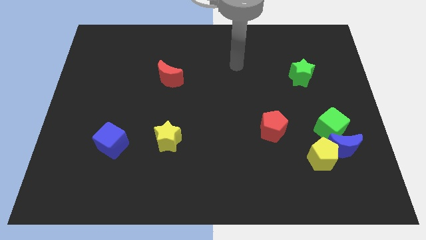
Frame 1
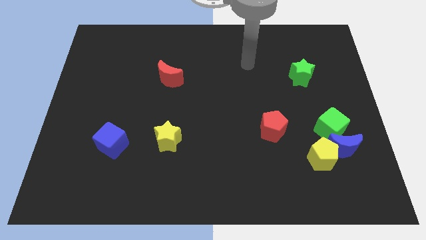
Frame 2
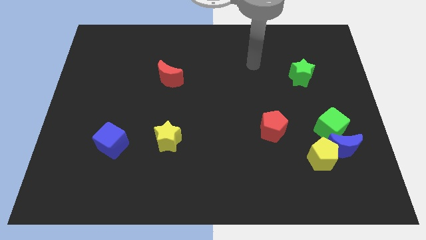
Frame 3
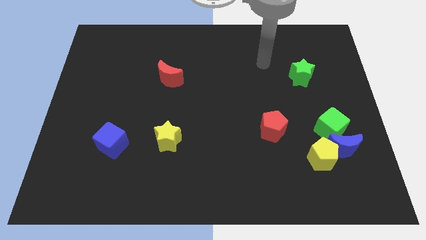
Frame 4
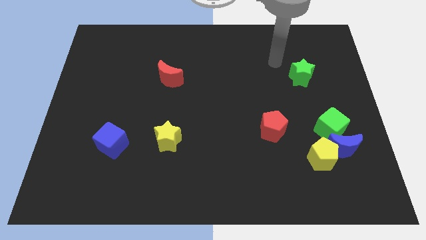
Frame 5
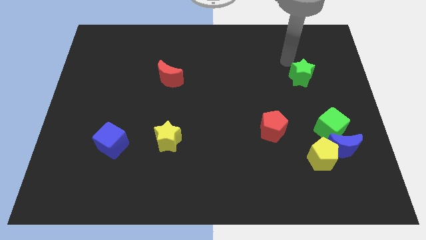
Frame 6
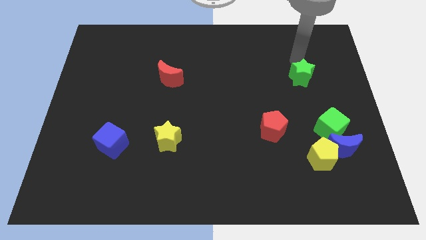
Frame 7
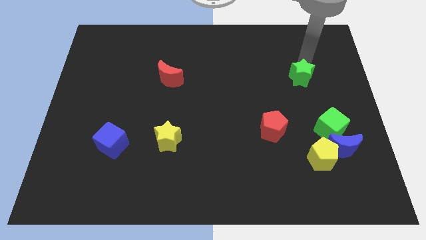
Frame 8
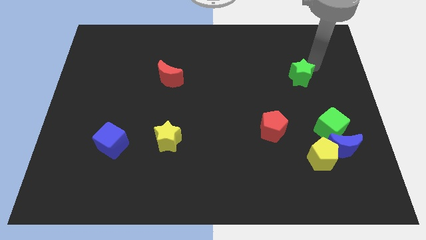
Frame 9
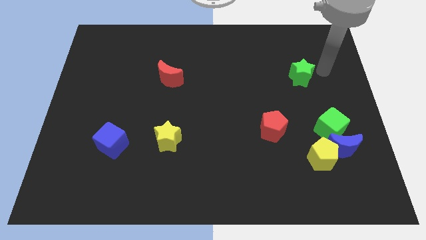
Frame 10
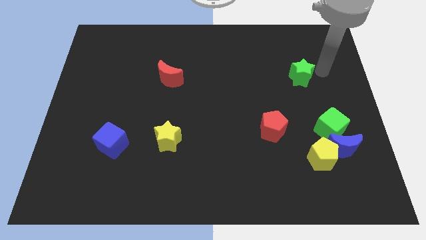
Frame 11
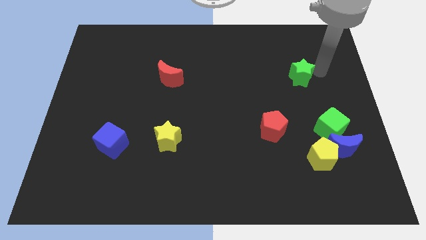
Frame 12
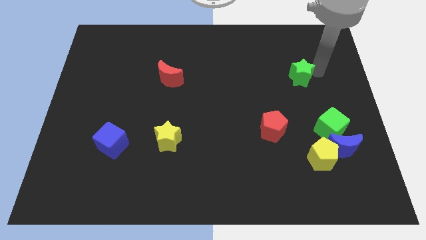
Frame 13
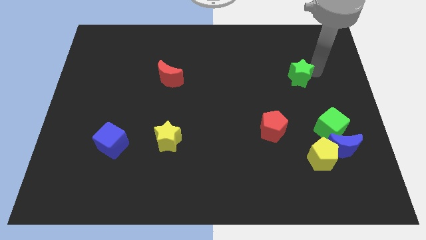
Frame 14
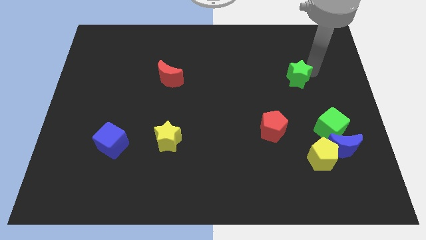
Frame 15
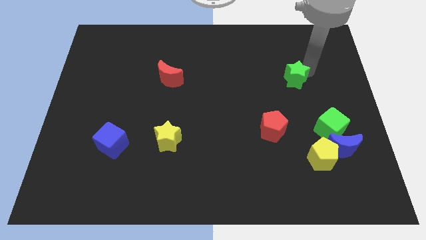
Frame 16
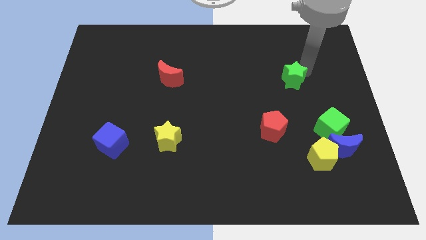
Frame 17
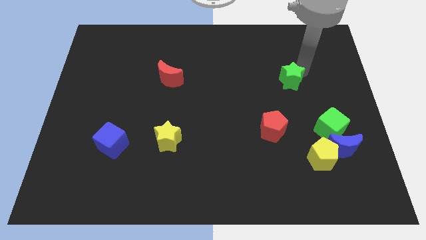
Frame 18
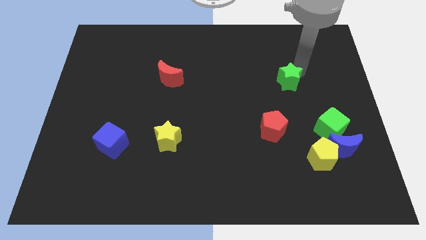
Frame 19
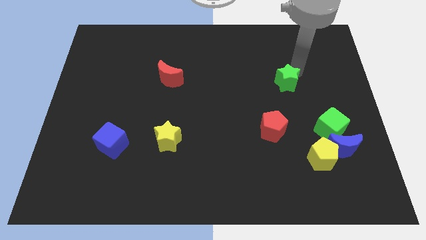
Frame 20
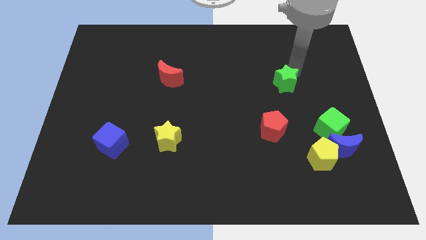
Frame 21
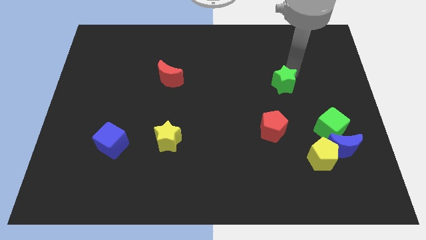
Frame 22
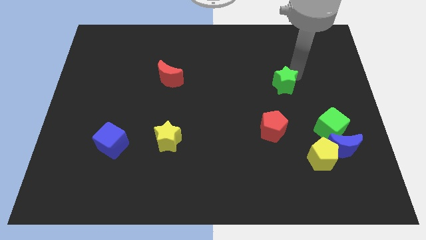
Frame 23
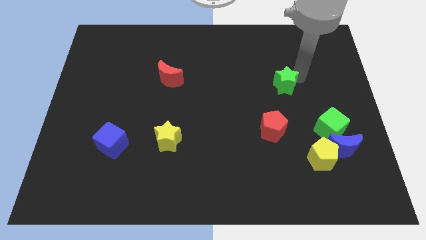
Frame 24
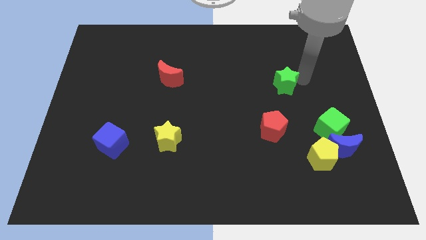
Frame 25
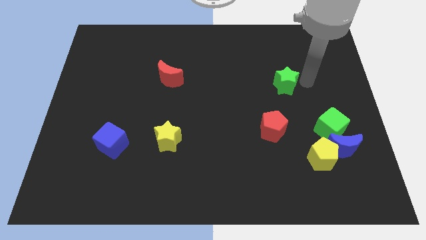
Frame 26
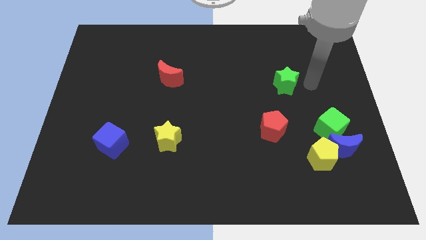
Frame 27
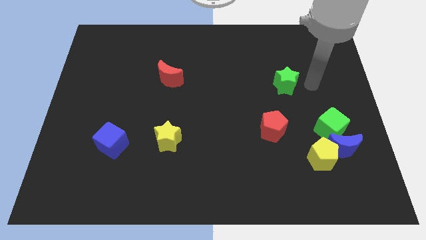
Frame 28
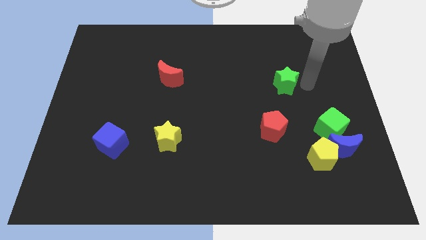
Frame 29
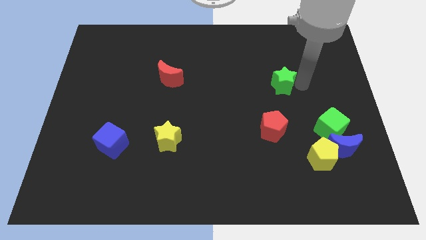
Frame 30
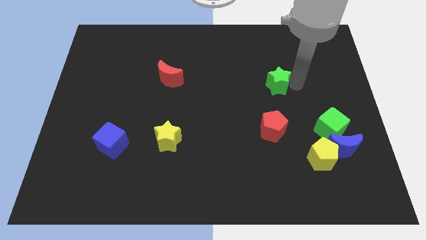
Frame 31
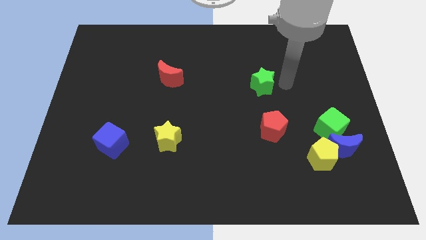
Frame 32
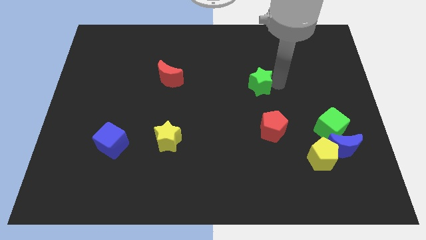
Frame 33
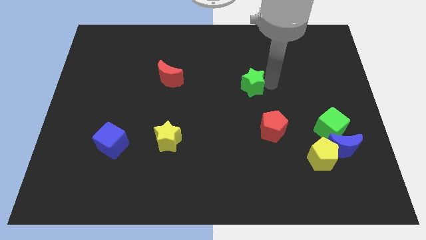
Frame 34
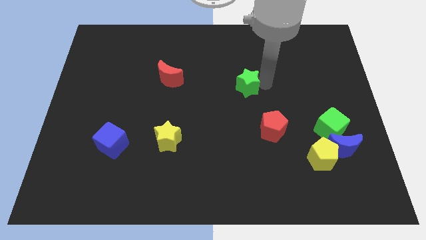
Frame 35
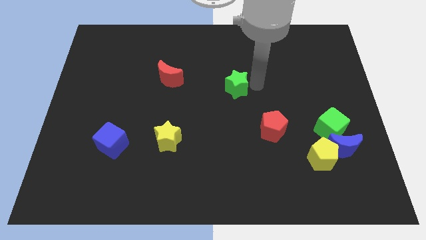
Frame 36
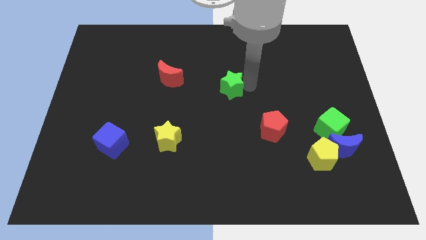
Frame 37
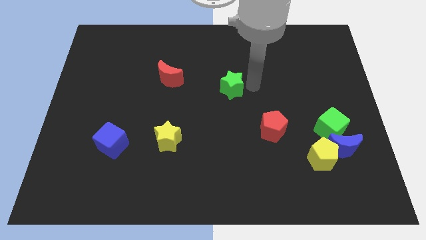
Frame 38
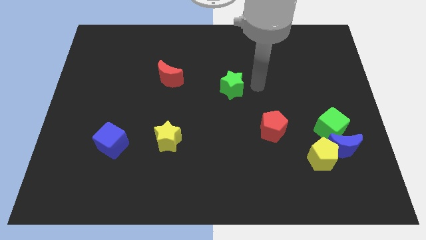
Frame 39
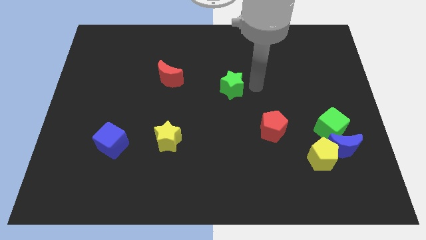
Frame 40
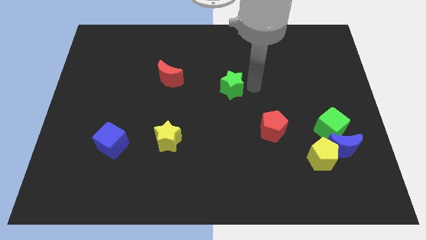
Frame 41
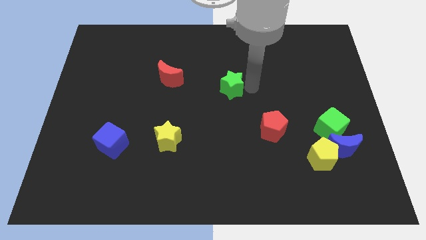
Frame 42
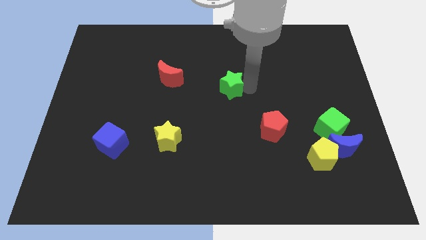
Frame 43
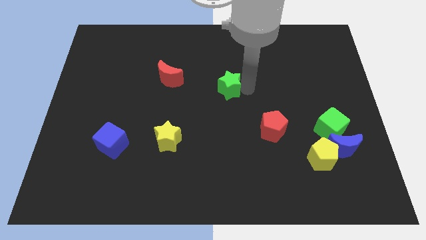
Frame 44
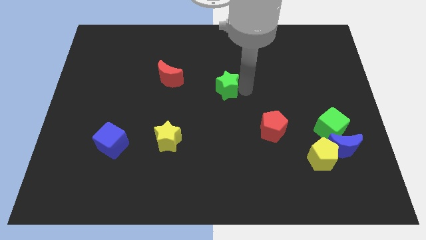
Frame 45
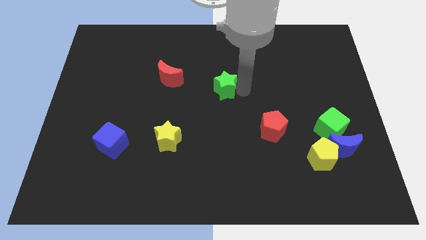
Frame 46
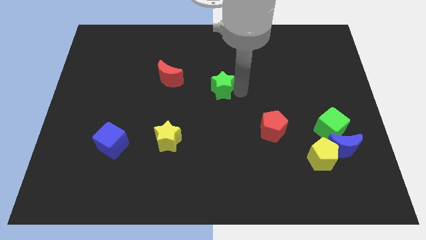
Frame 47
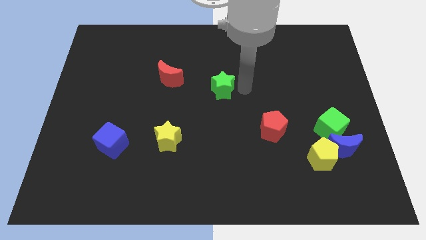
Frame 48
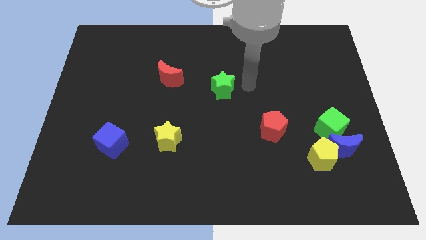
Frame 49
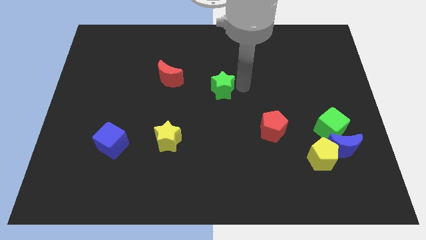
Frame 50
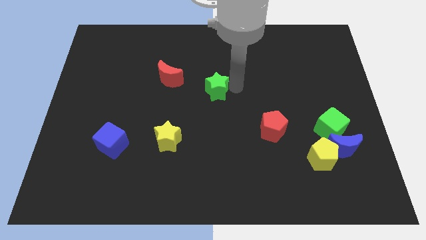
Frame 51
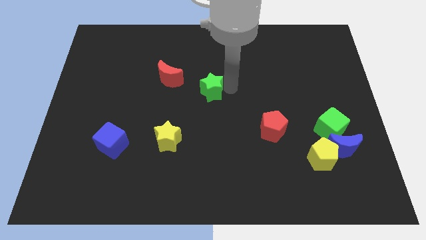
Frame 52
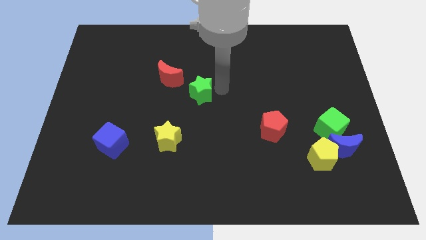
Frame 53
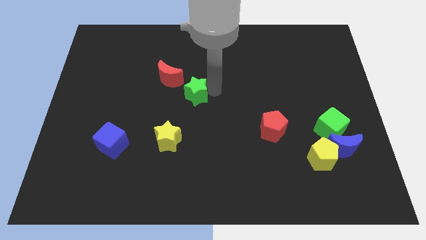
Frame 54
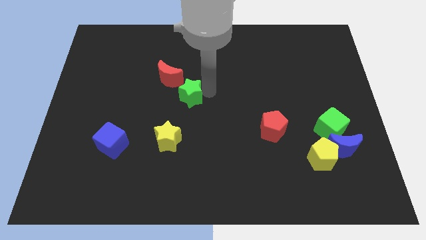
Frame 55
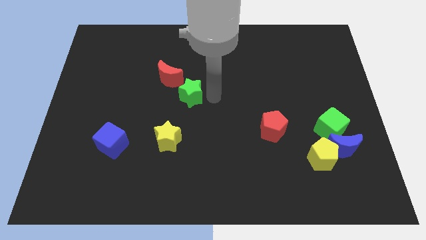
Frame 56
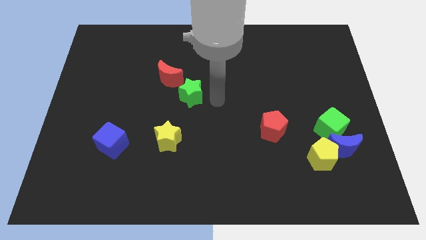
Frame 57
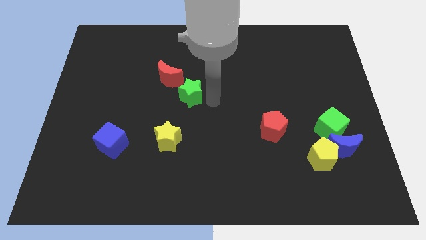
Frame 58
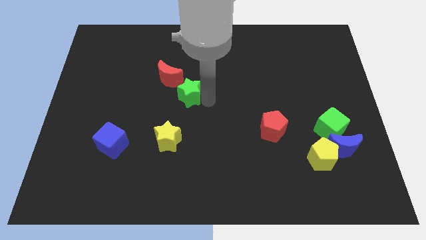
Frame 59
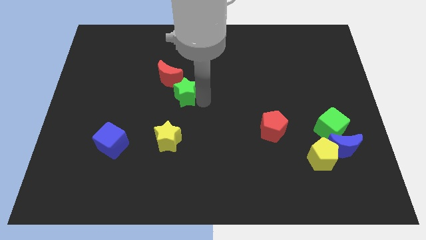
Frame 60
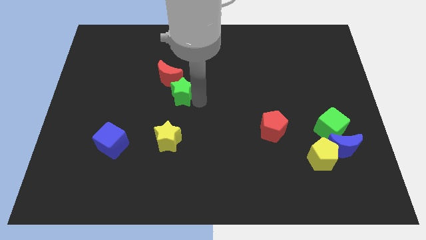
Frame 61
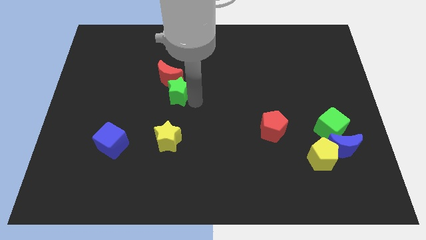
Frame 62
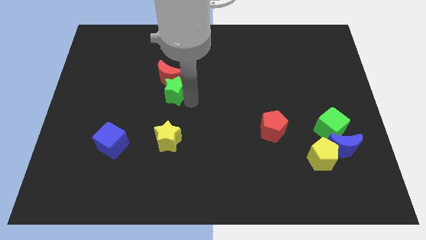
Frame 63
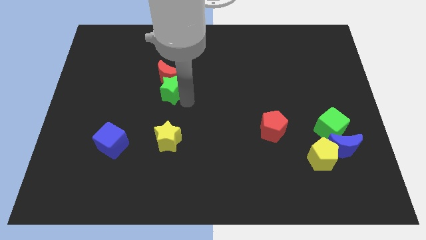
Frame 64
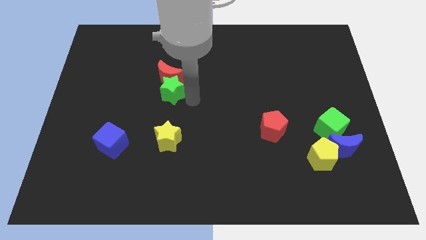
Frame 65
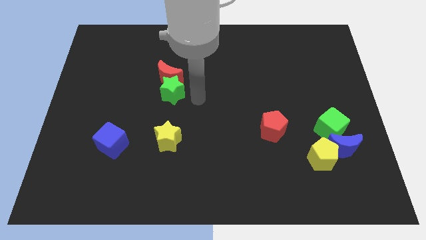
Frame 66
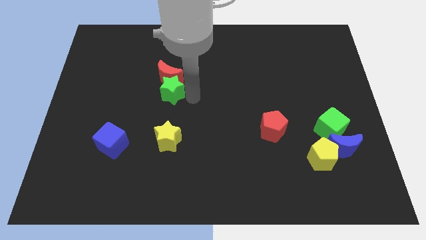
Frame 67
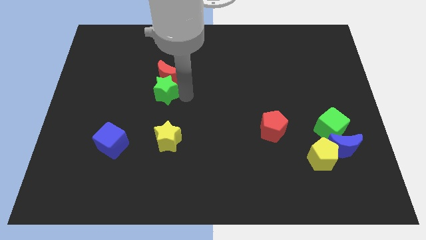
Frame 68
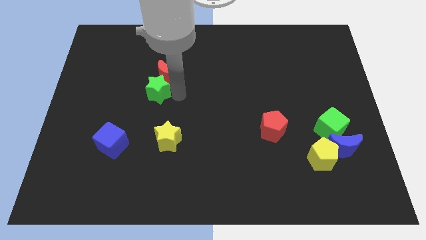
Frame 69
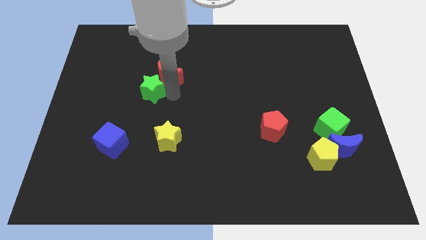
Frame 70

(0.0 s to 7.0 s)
move the green star left of the red moon
